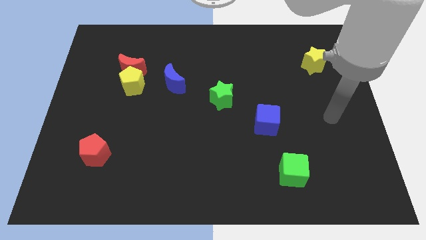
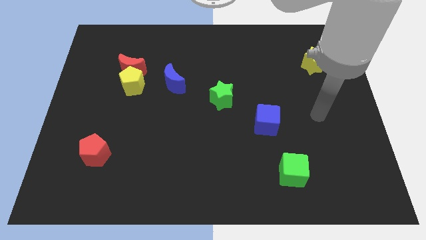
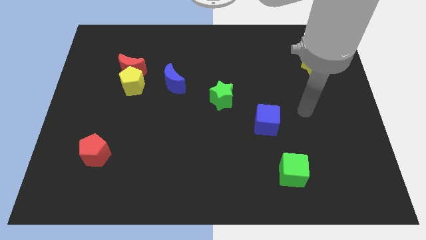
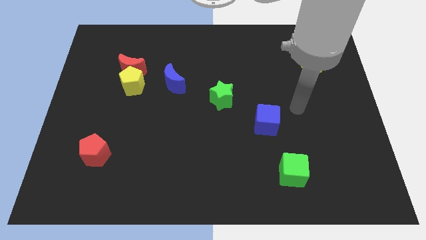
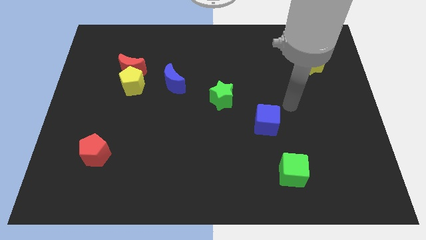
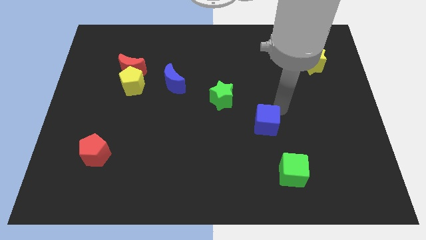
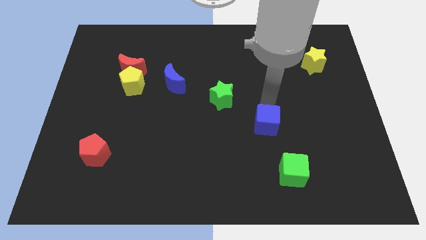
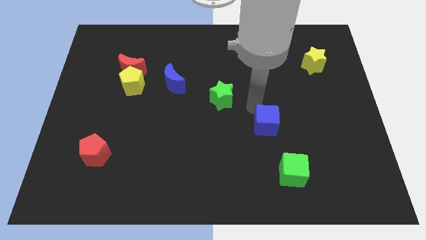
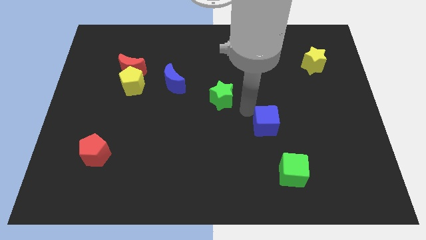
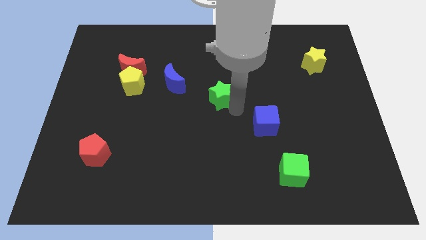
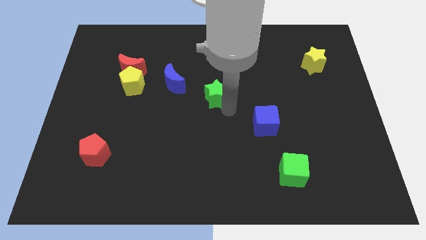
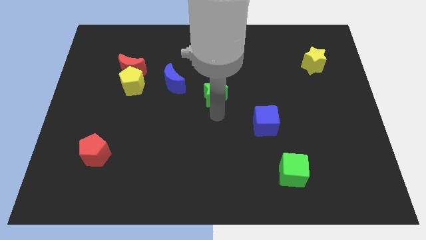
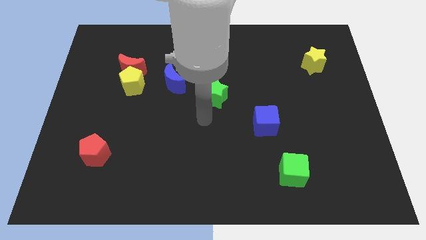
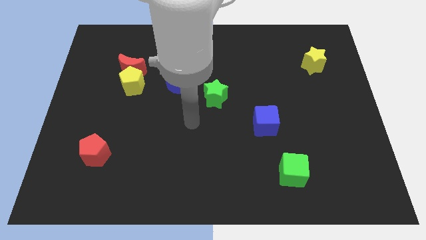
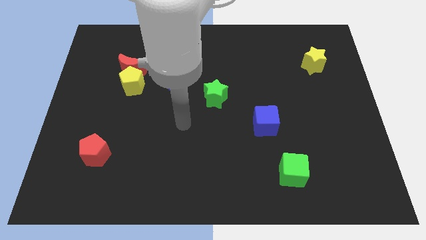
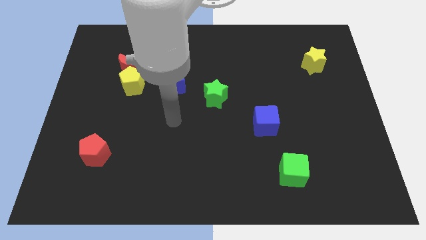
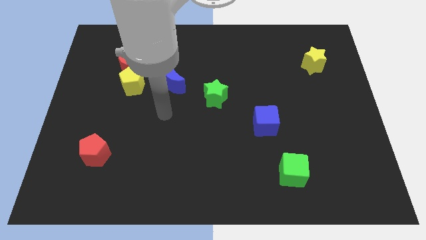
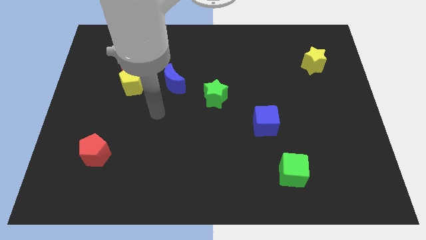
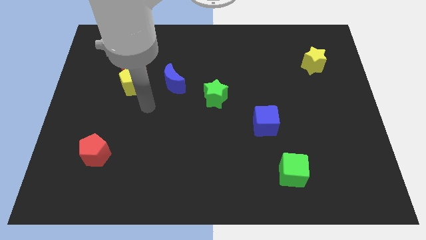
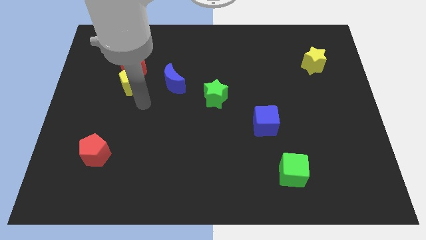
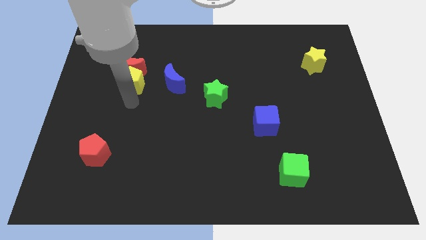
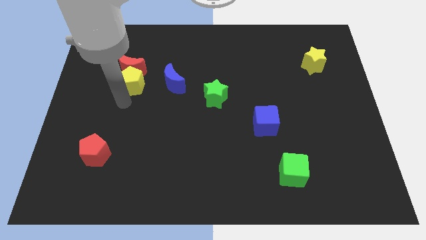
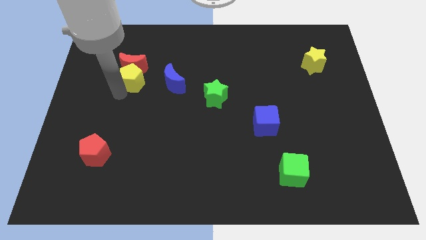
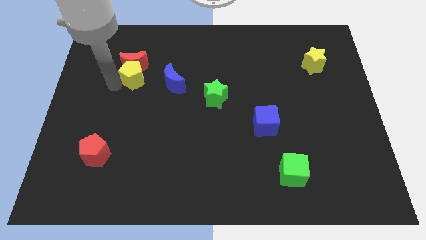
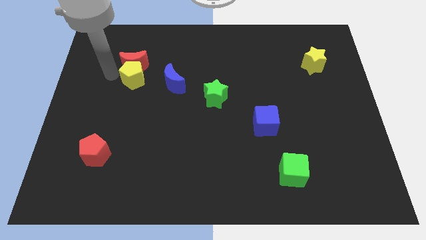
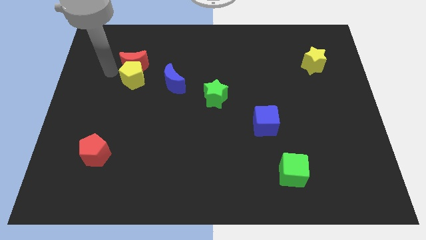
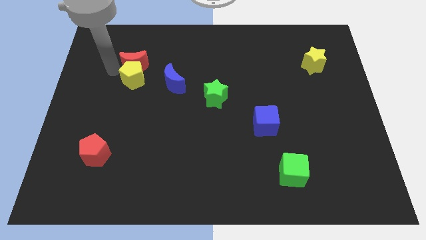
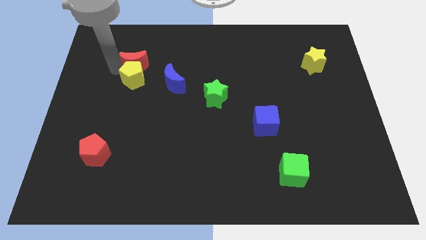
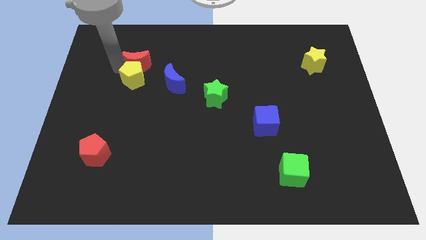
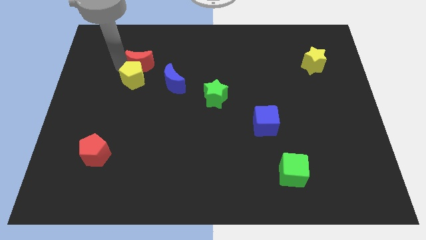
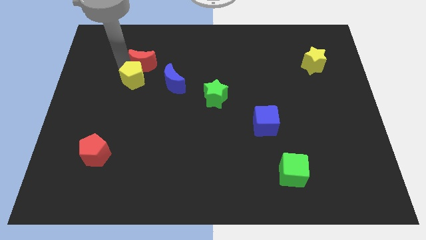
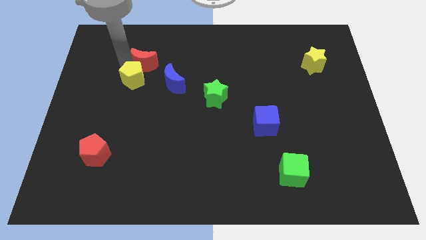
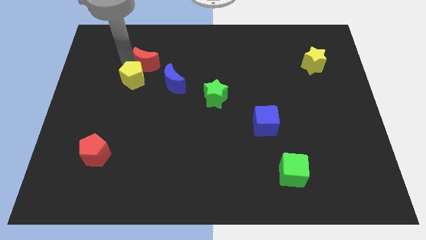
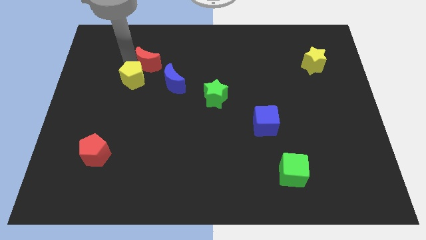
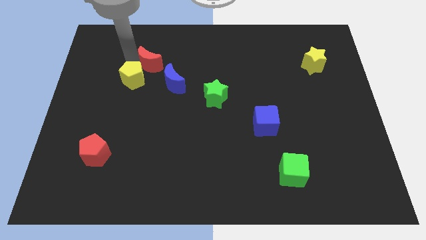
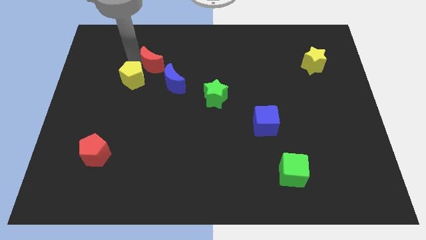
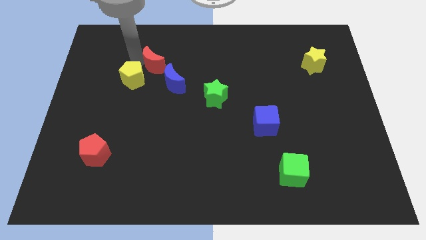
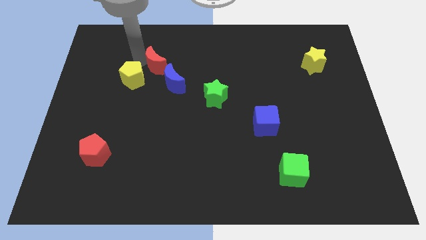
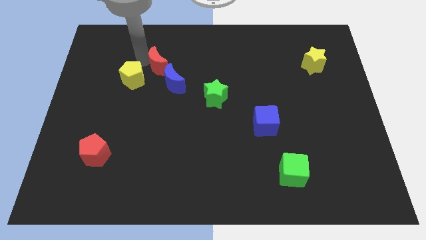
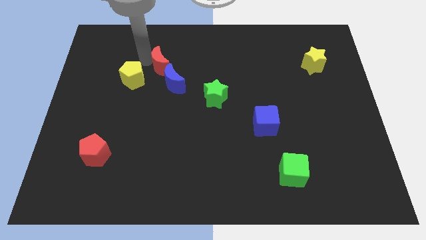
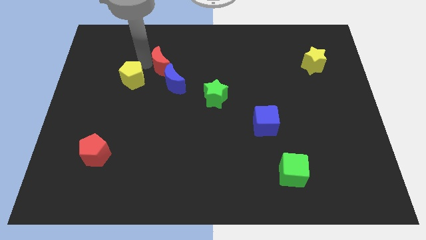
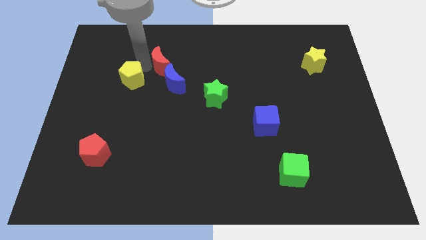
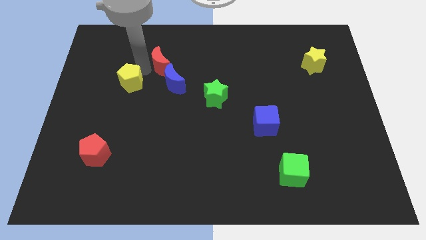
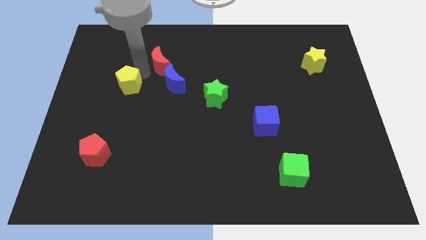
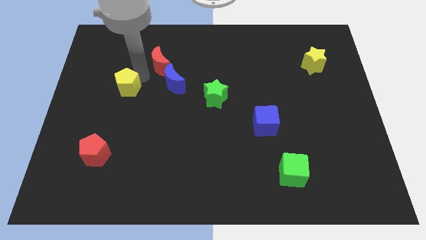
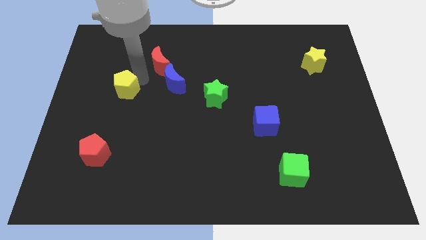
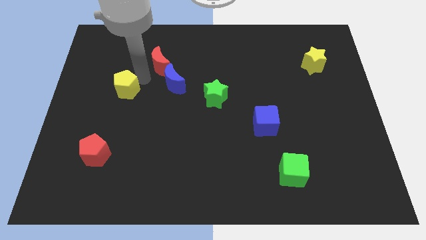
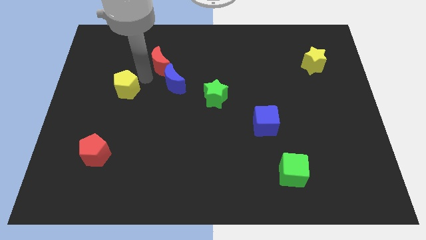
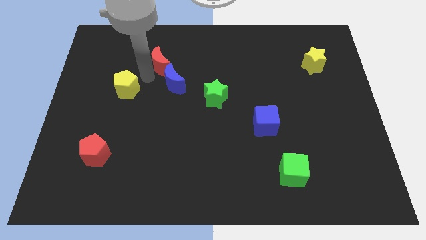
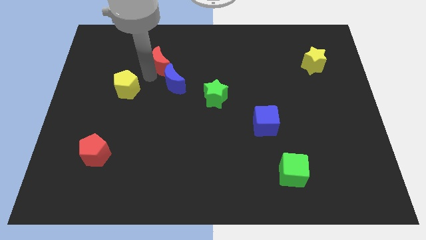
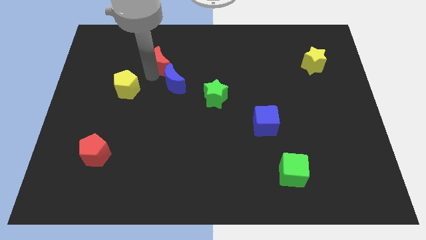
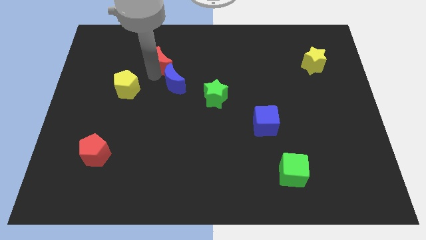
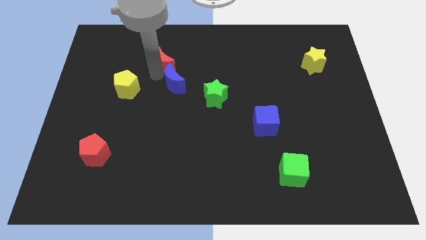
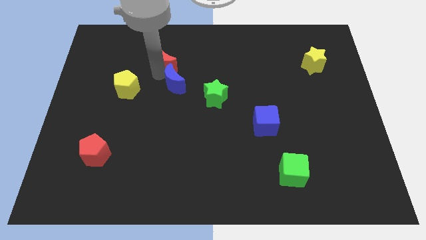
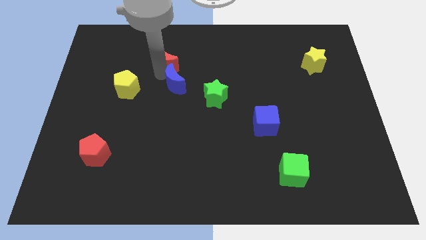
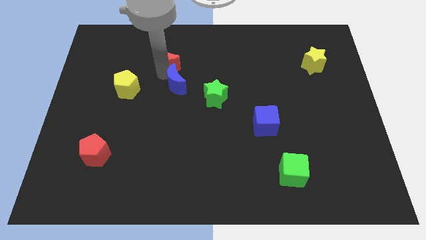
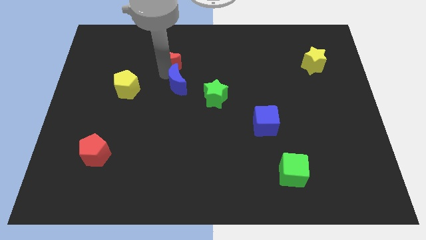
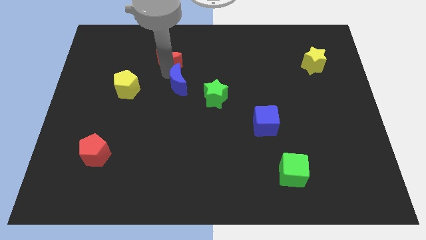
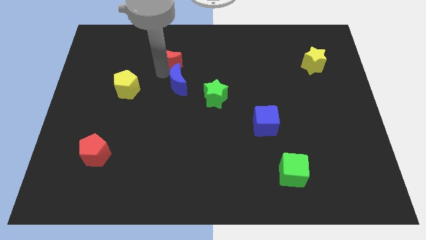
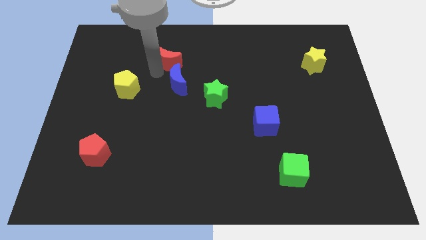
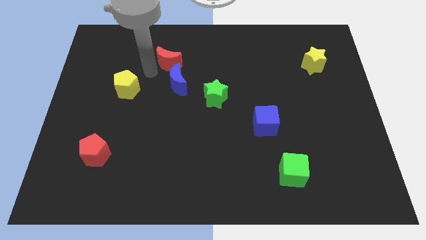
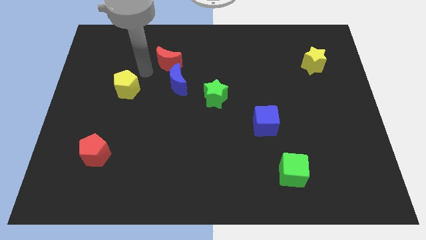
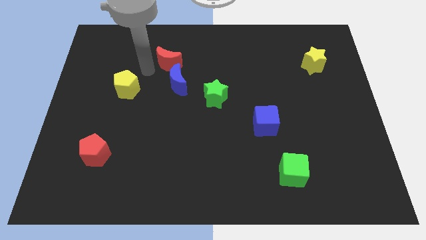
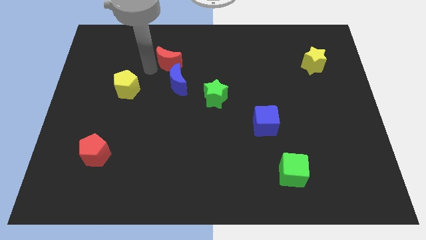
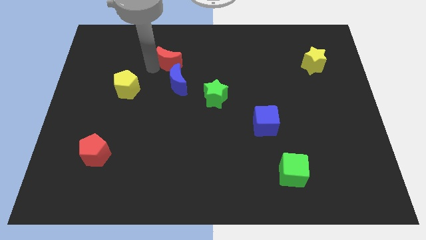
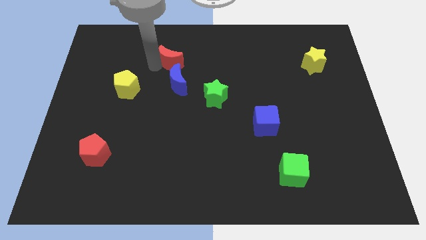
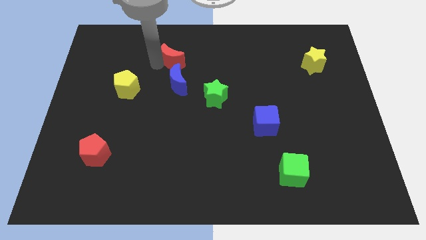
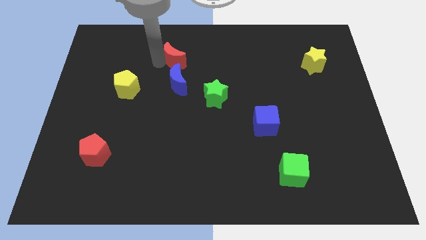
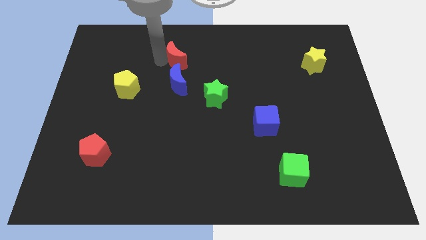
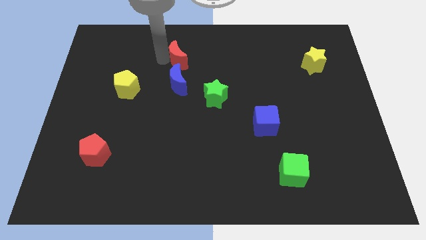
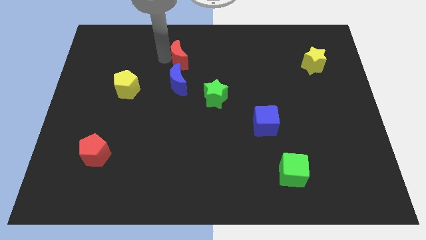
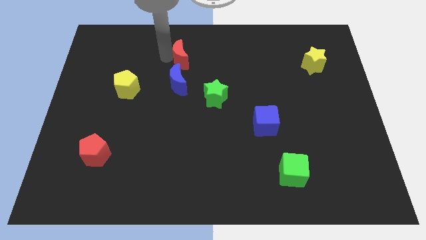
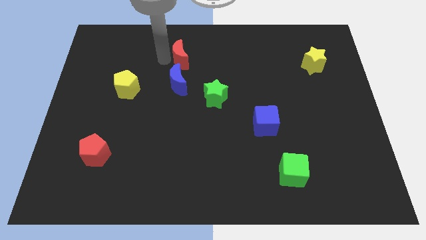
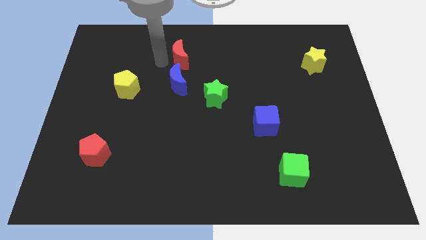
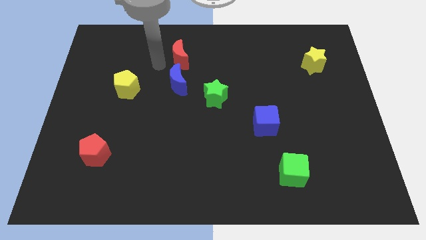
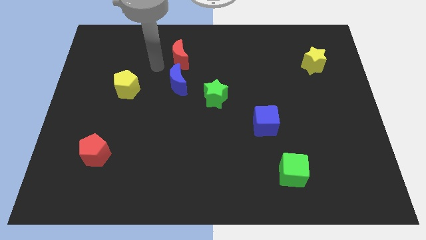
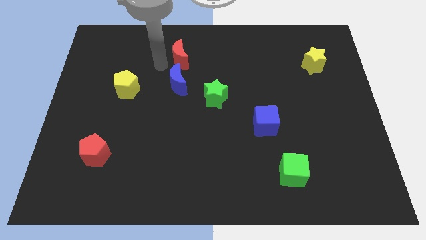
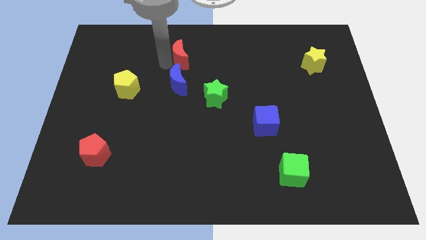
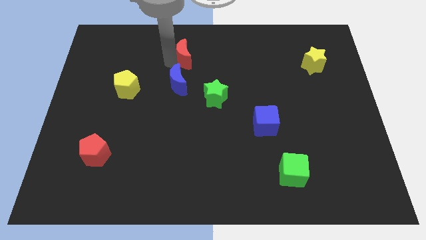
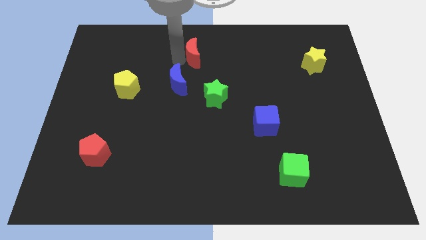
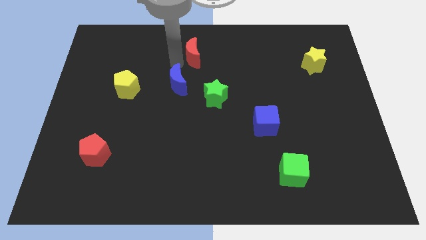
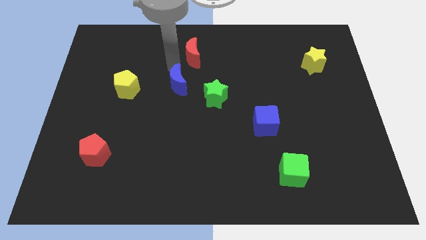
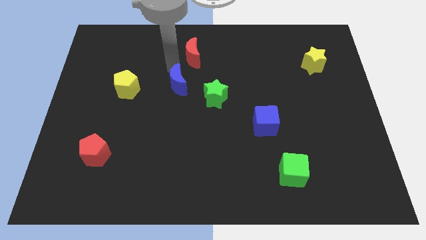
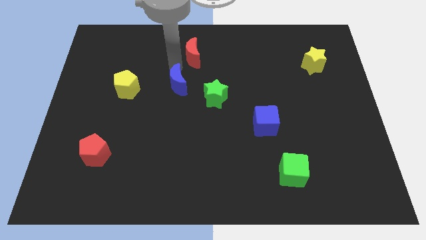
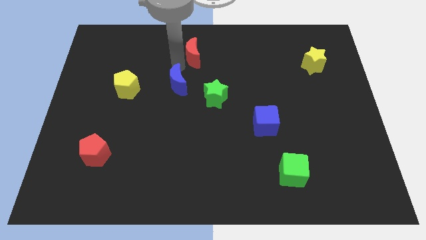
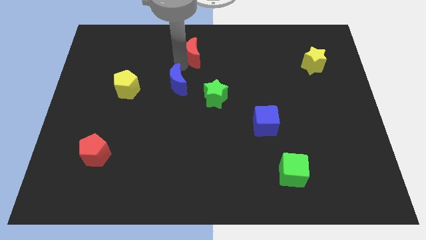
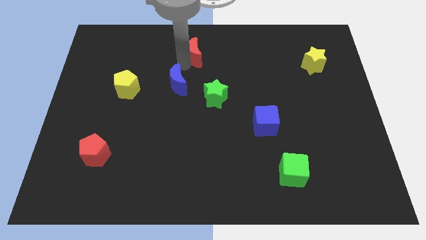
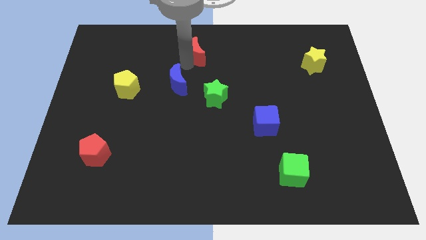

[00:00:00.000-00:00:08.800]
slide the red moon to the top side
